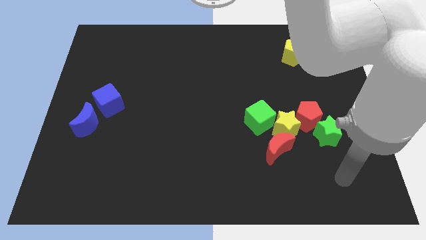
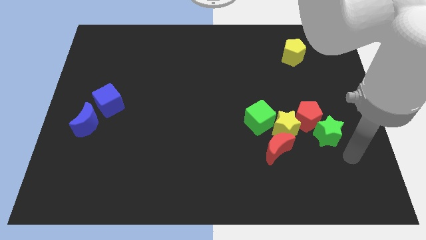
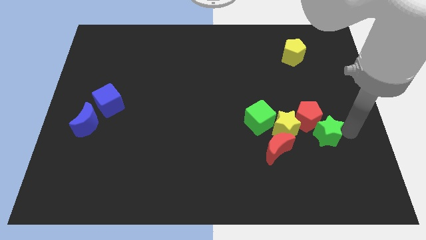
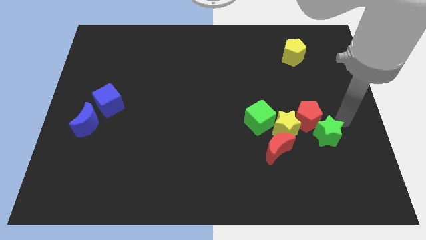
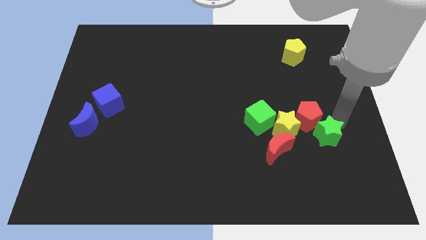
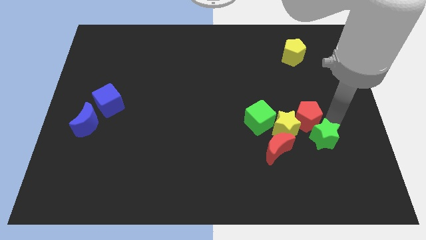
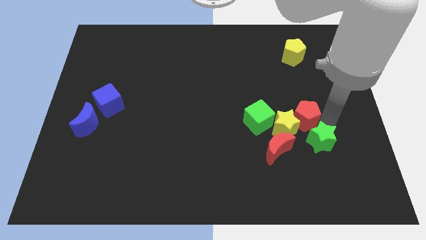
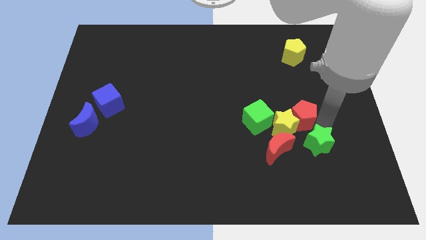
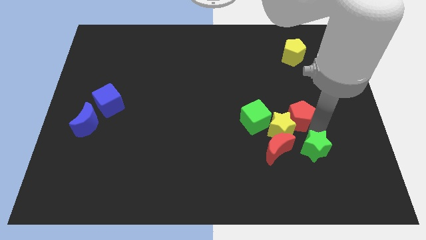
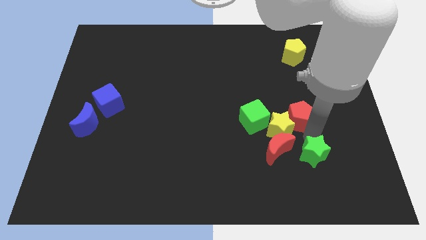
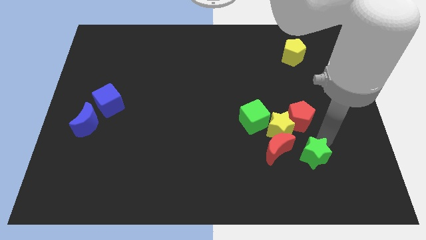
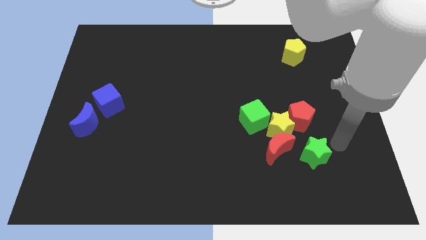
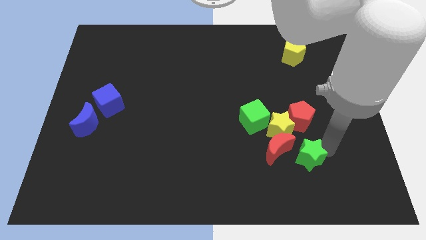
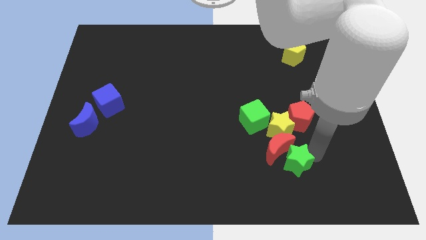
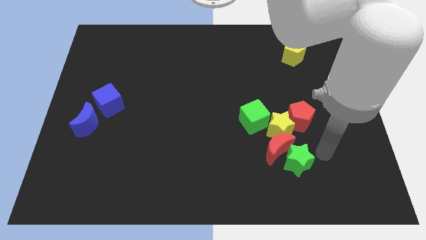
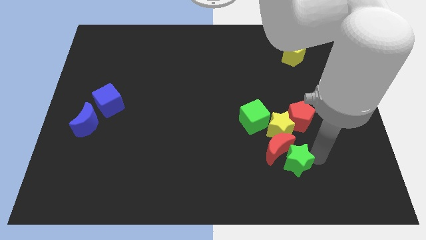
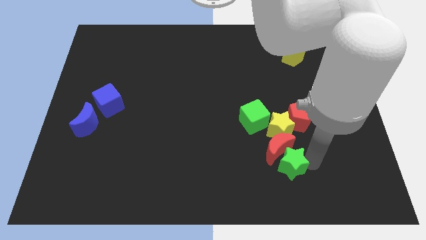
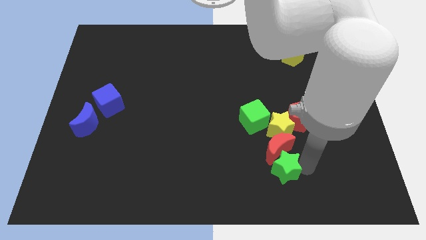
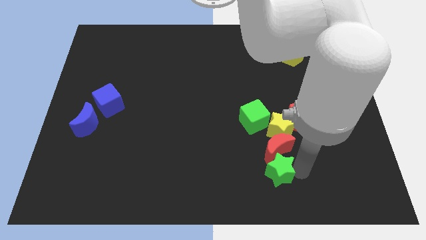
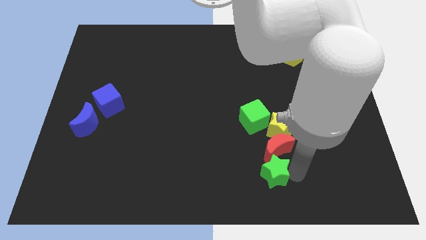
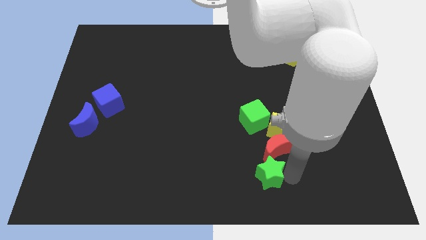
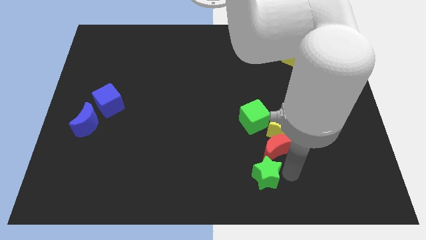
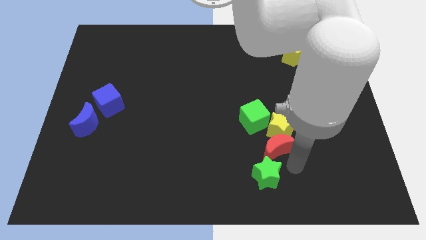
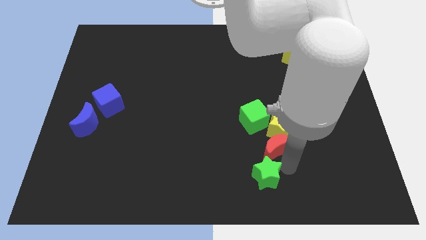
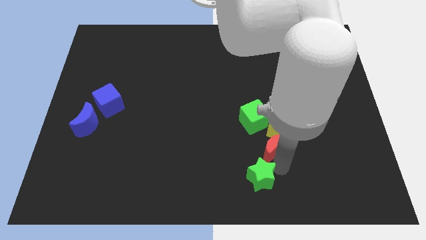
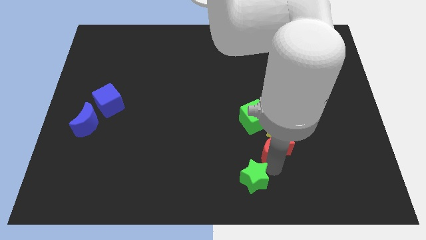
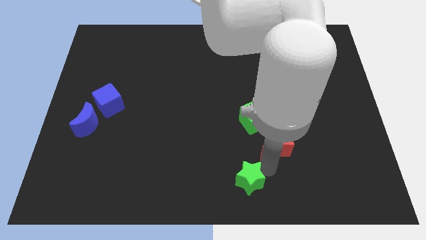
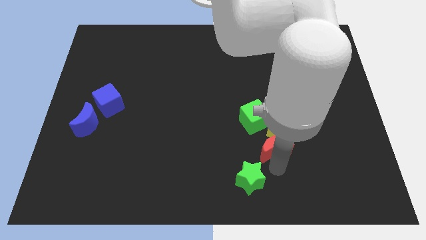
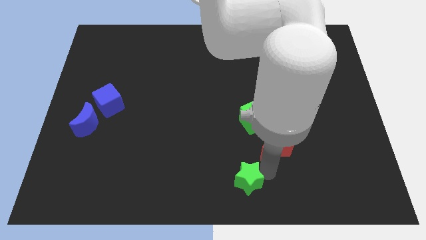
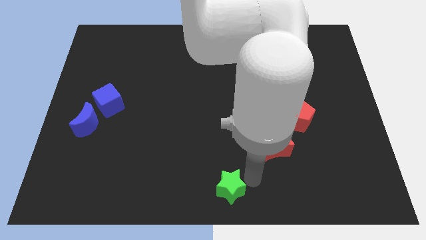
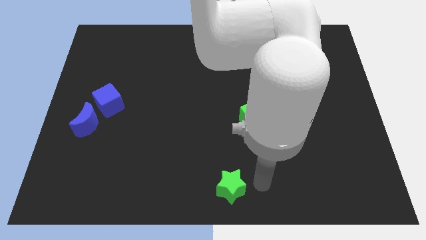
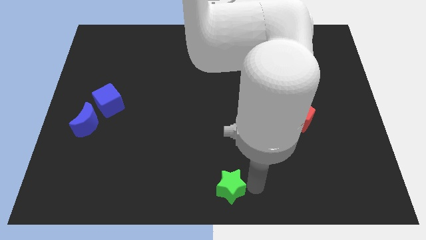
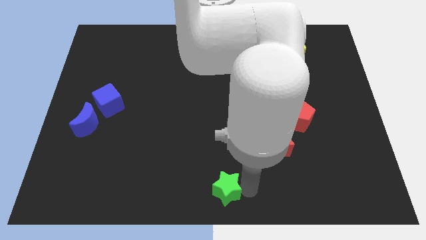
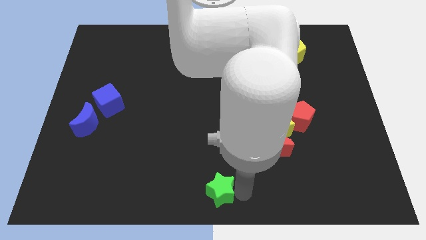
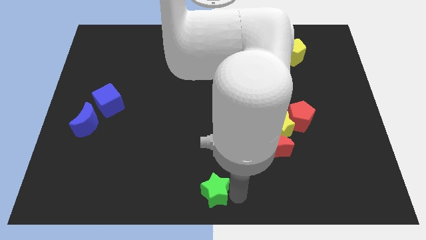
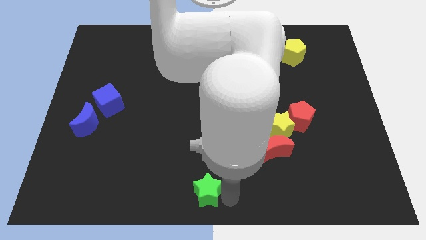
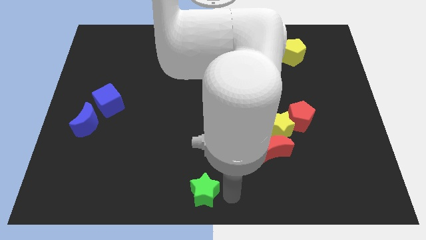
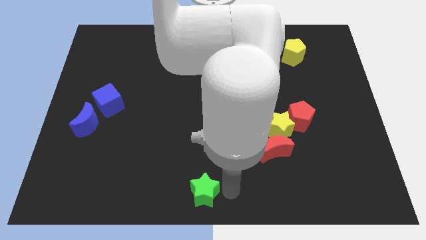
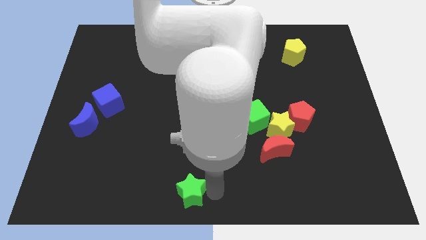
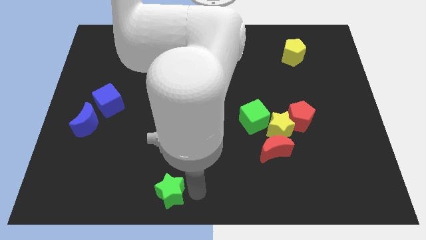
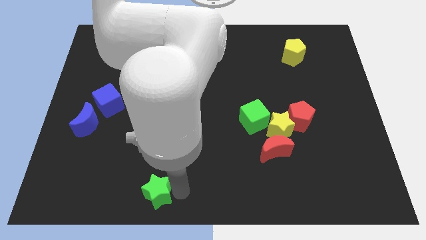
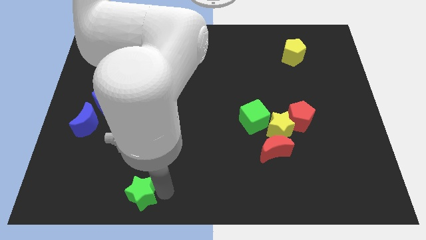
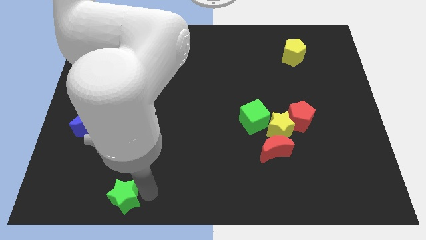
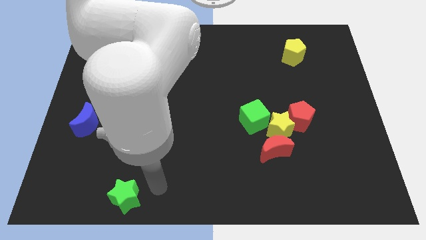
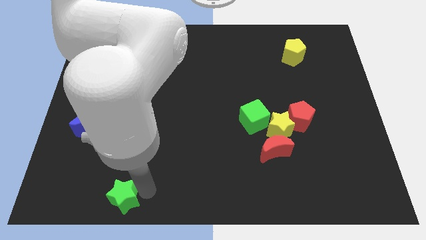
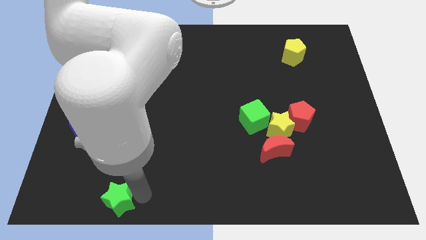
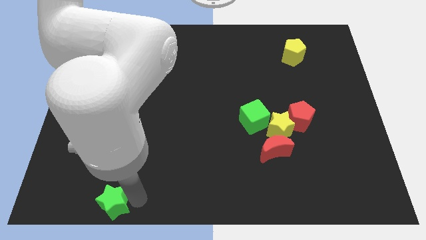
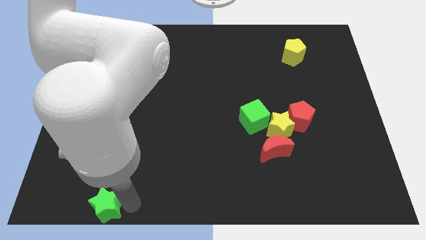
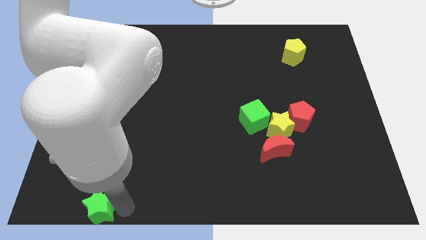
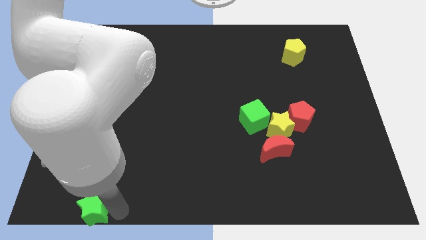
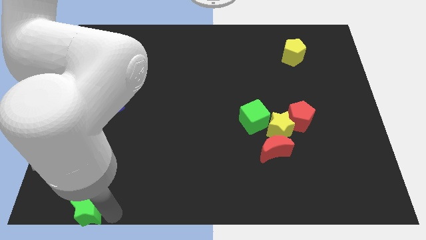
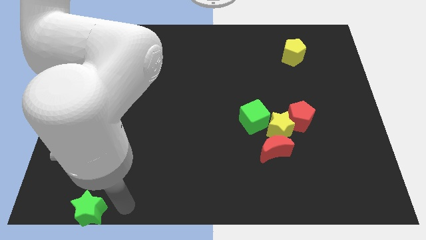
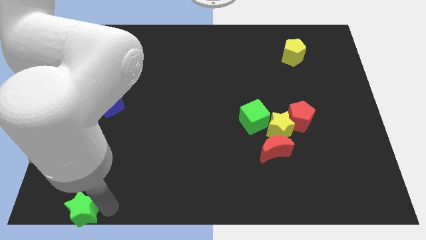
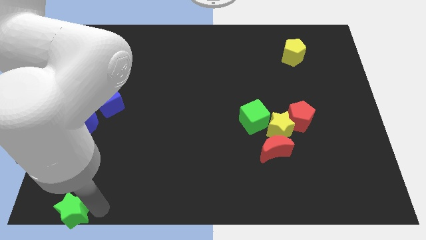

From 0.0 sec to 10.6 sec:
push the green star to the bottom left of the board

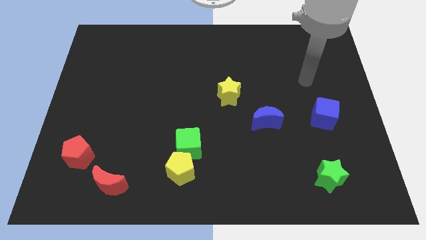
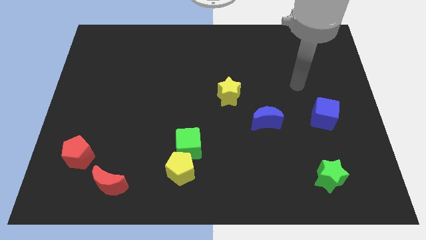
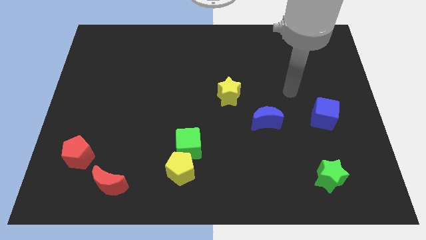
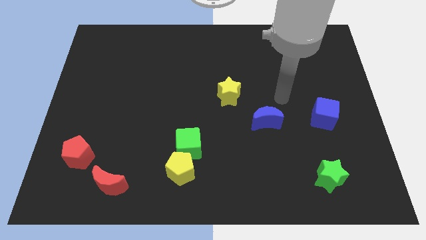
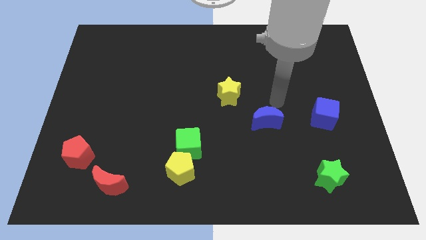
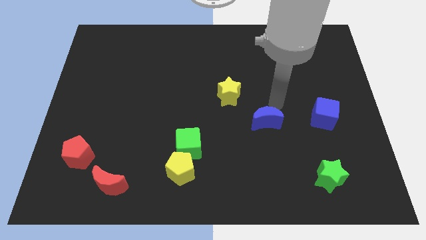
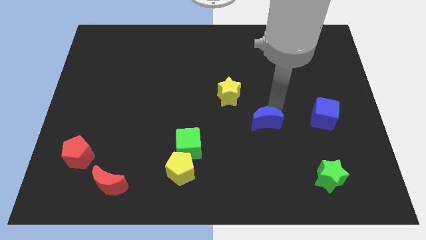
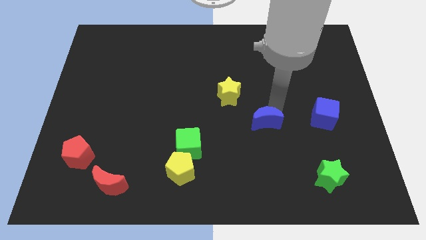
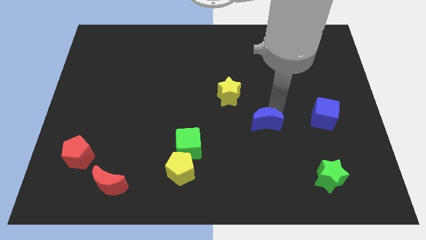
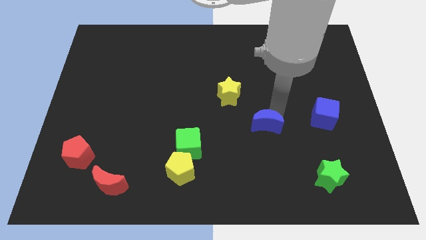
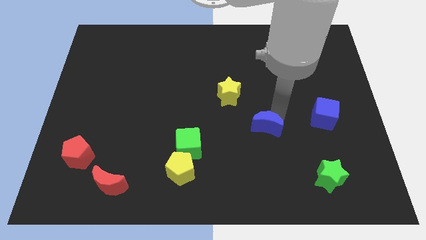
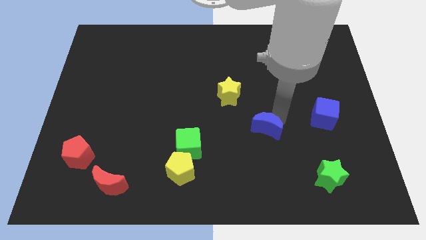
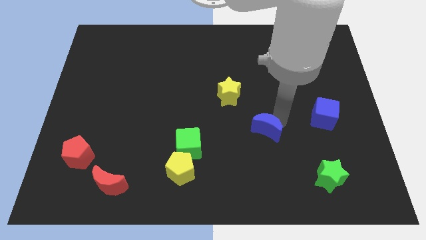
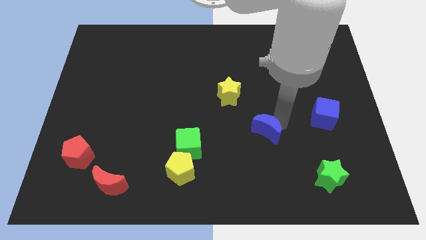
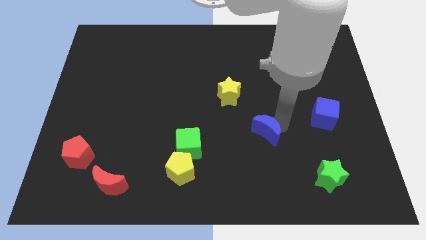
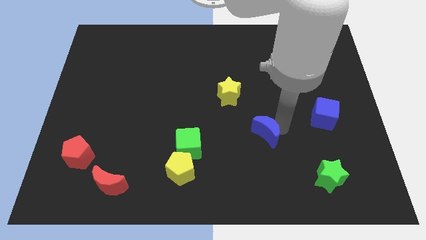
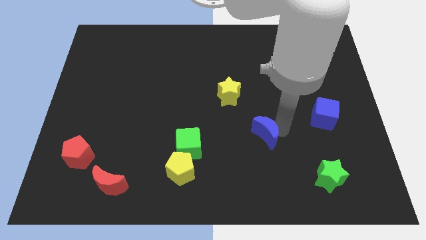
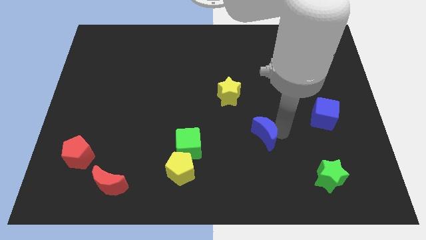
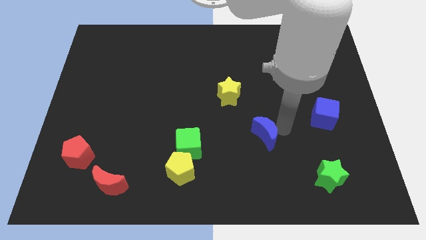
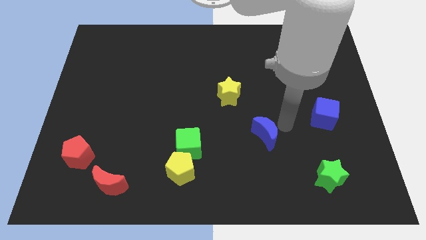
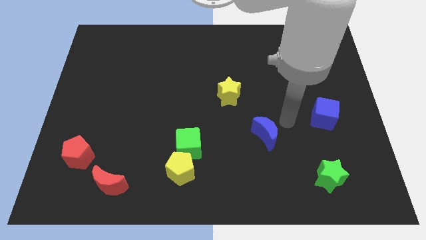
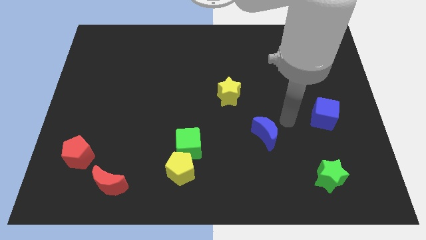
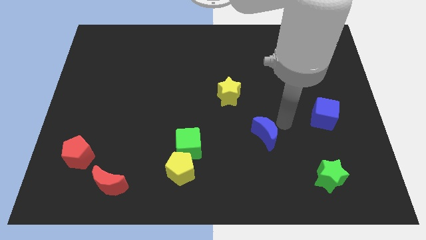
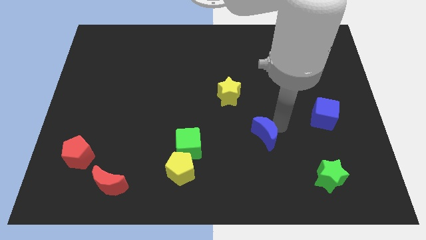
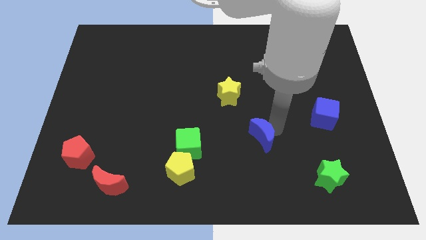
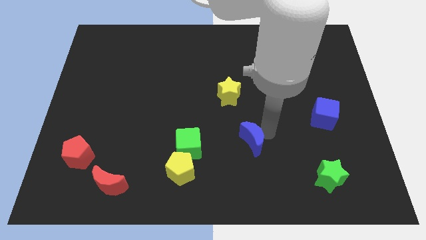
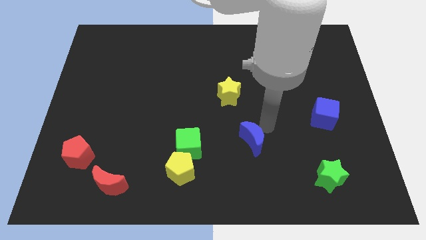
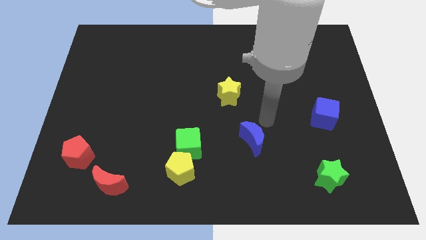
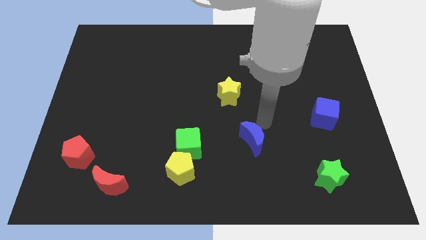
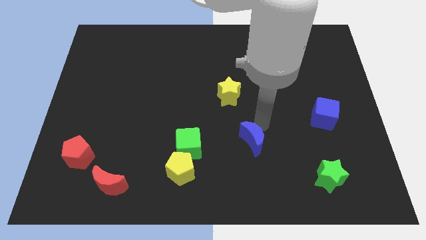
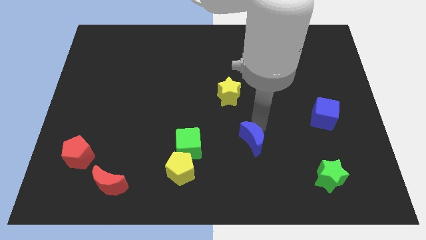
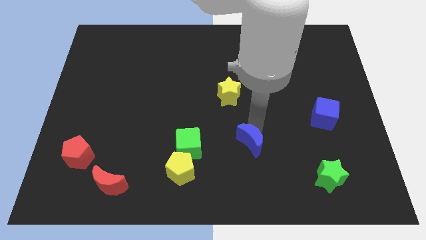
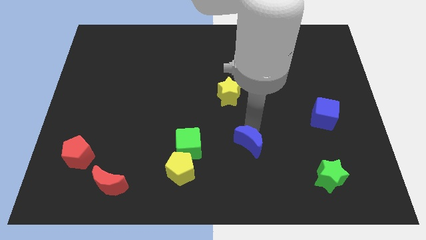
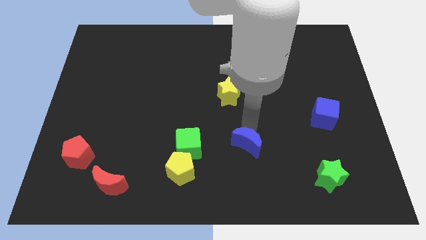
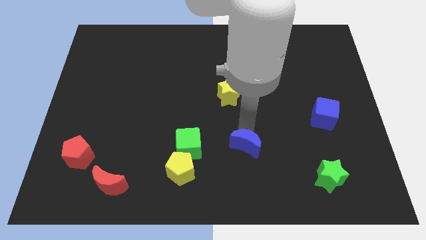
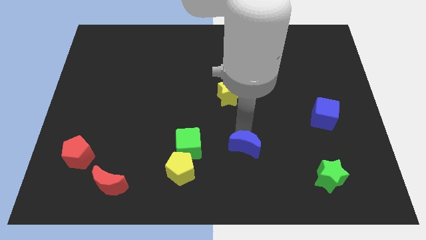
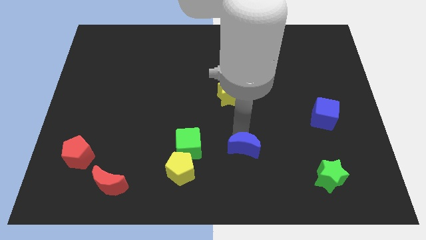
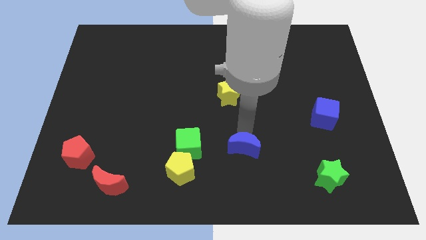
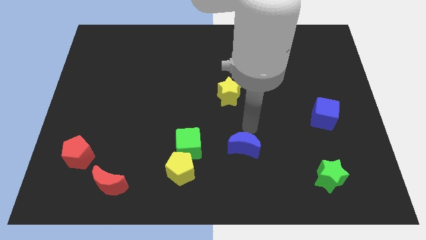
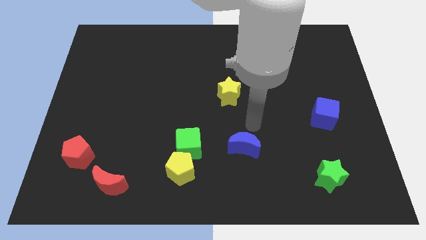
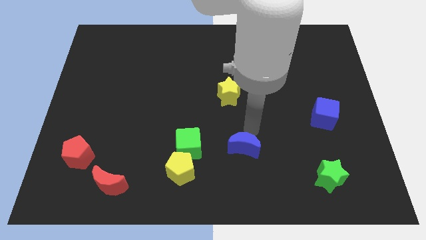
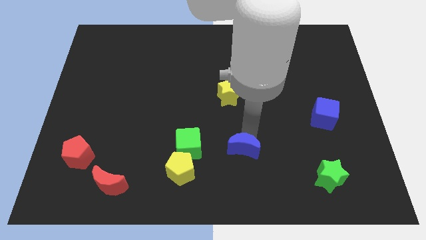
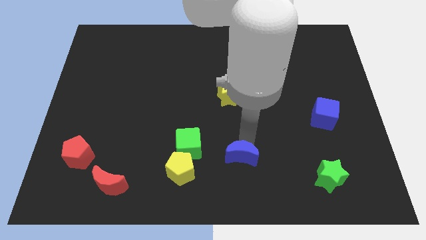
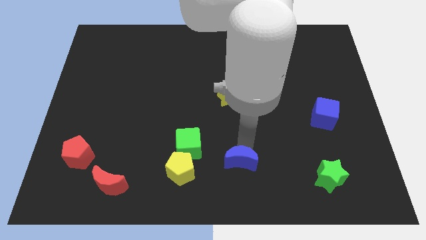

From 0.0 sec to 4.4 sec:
slide the blue moon to the bottom
